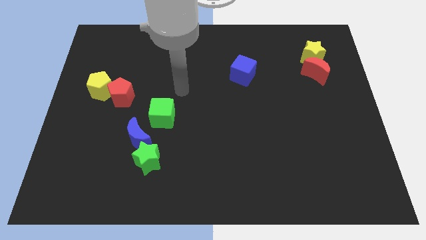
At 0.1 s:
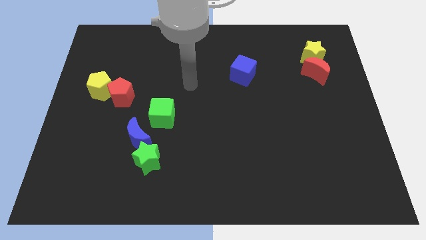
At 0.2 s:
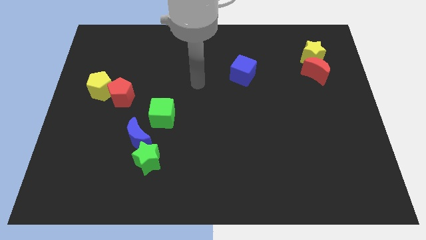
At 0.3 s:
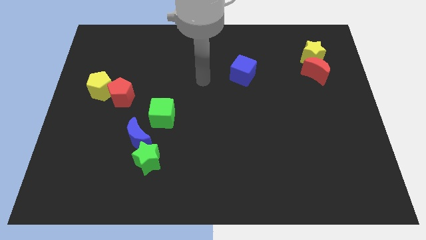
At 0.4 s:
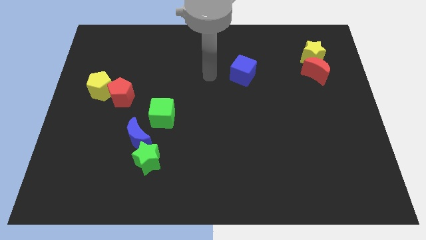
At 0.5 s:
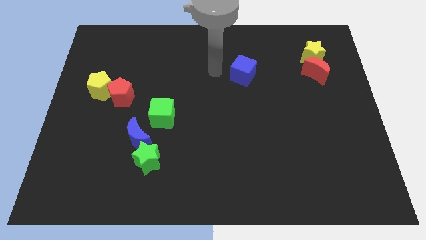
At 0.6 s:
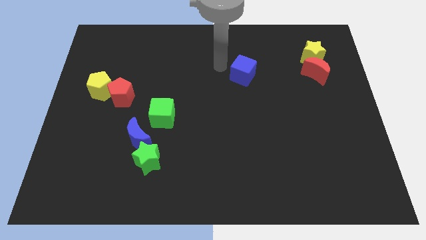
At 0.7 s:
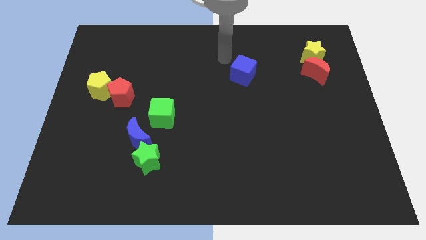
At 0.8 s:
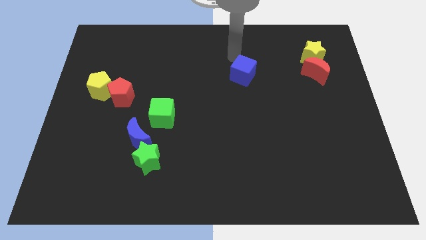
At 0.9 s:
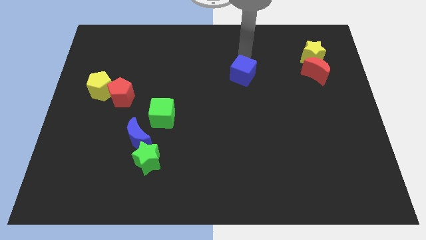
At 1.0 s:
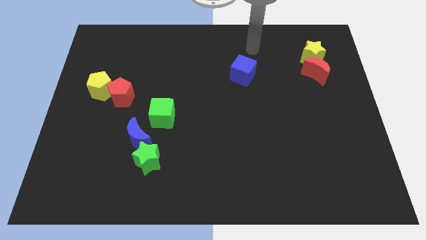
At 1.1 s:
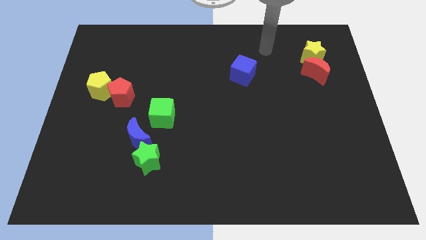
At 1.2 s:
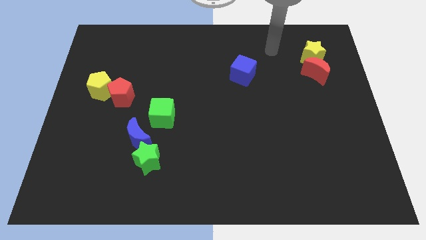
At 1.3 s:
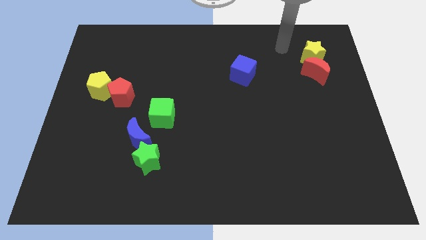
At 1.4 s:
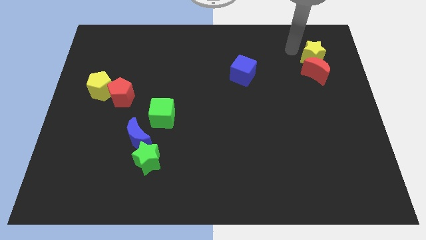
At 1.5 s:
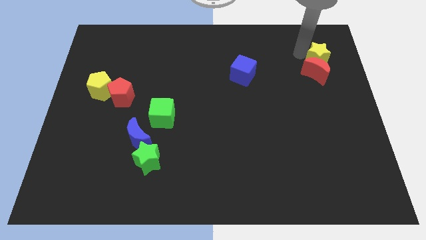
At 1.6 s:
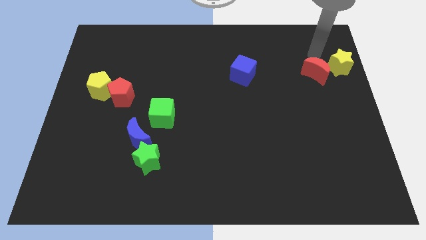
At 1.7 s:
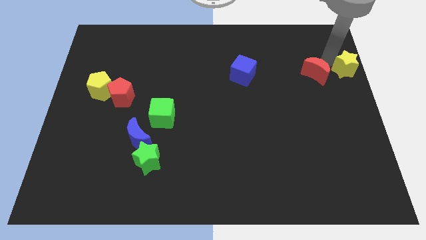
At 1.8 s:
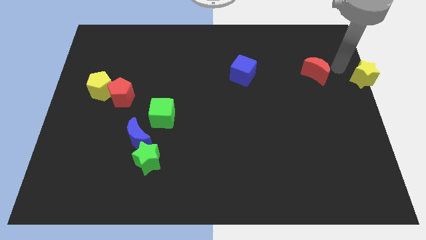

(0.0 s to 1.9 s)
separate the red moon from the yellow star

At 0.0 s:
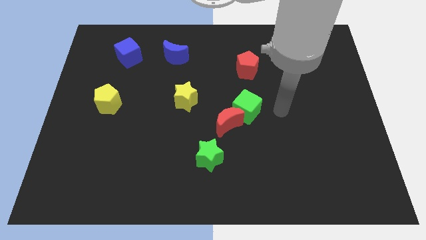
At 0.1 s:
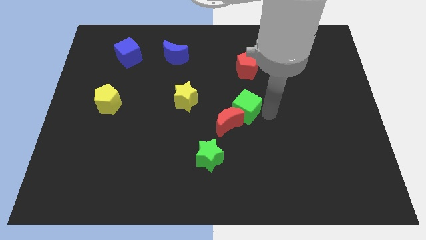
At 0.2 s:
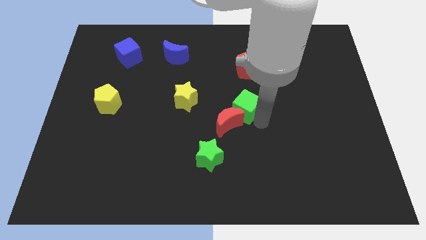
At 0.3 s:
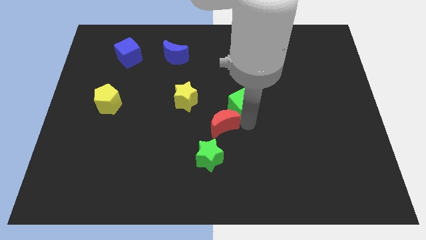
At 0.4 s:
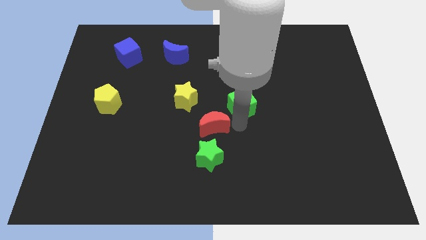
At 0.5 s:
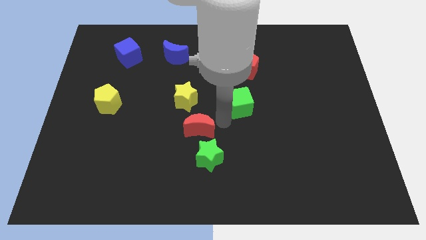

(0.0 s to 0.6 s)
move the green cube away from the red moon

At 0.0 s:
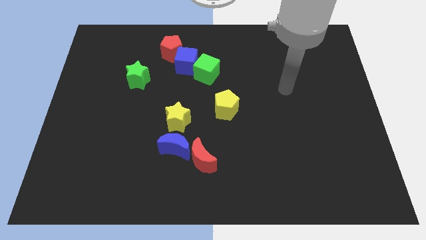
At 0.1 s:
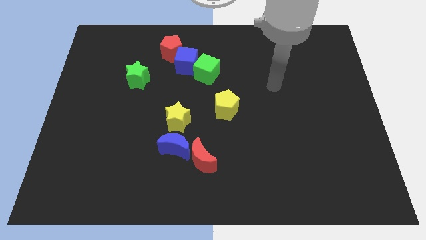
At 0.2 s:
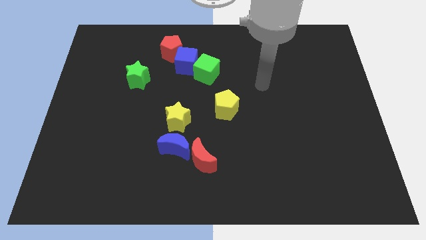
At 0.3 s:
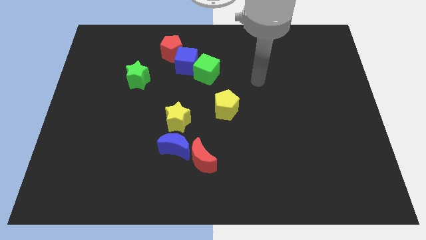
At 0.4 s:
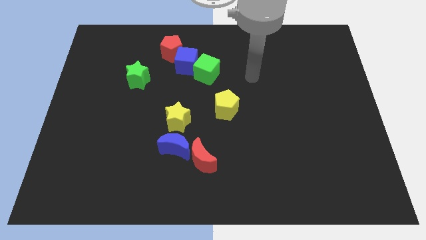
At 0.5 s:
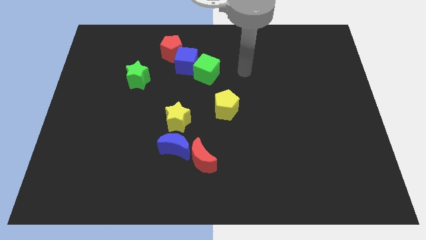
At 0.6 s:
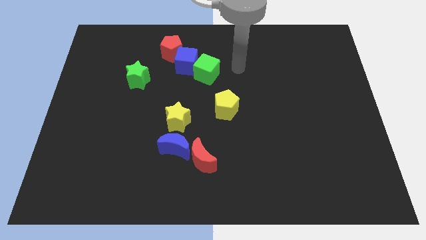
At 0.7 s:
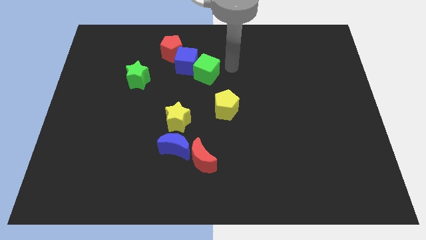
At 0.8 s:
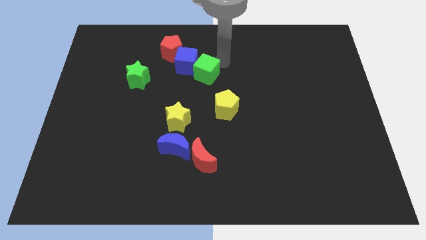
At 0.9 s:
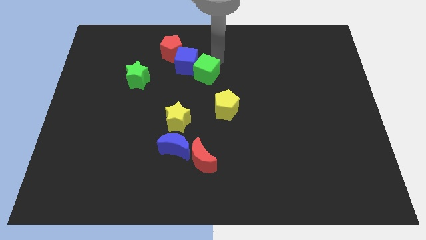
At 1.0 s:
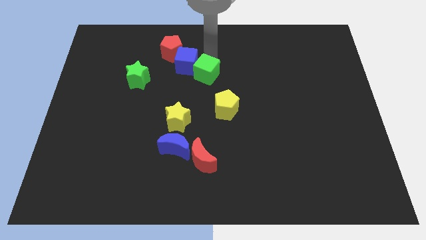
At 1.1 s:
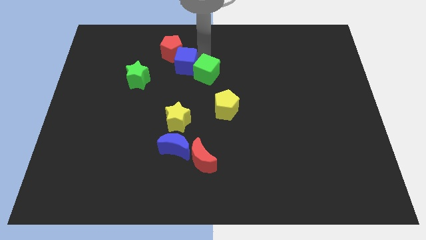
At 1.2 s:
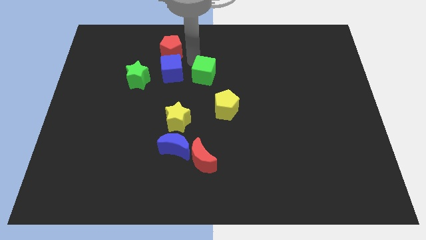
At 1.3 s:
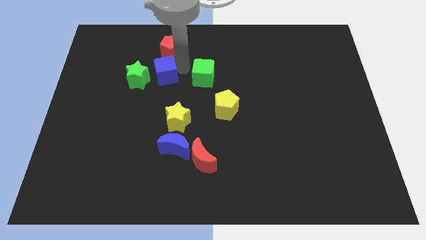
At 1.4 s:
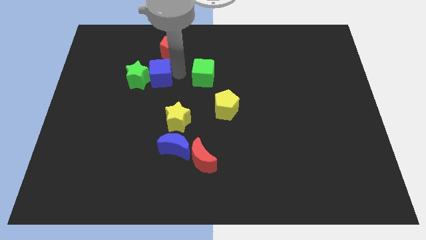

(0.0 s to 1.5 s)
move the green cube away from the blue cube

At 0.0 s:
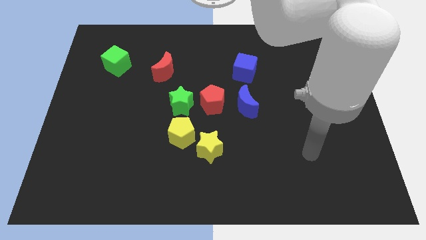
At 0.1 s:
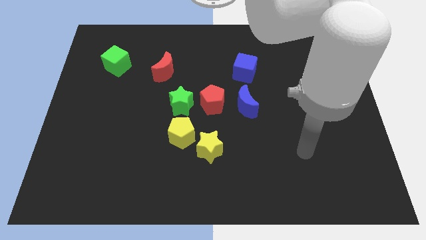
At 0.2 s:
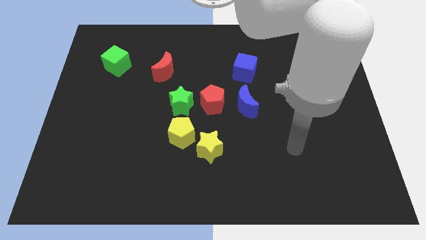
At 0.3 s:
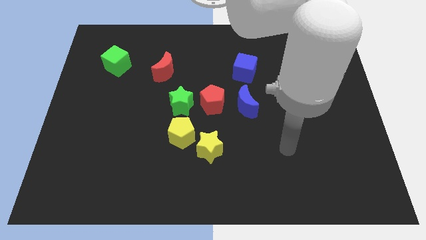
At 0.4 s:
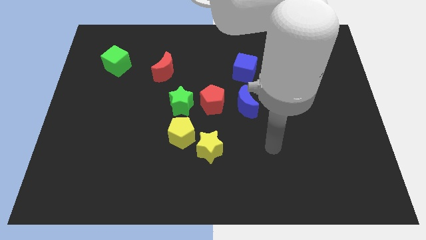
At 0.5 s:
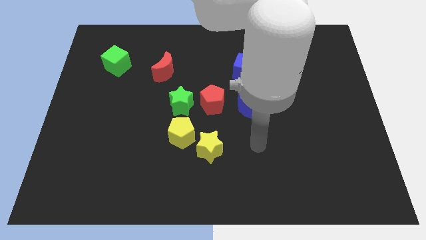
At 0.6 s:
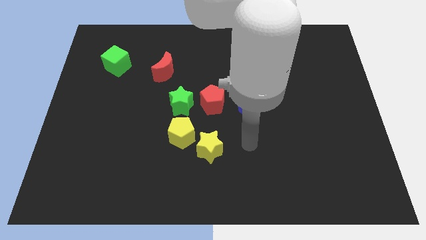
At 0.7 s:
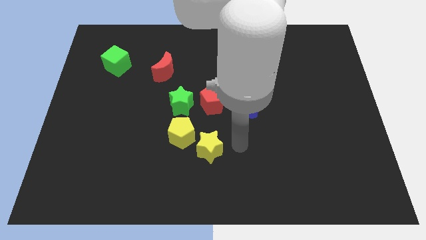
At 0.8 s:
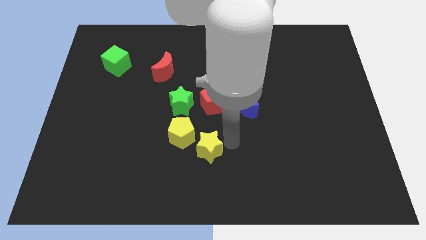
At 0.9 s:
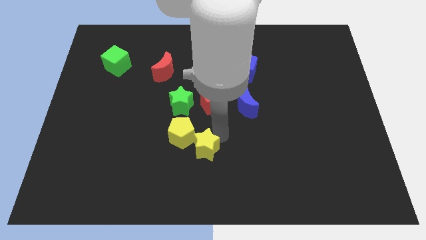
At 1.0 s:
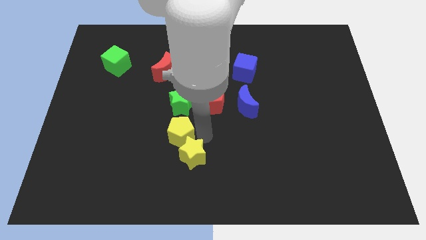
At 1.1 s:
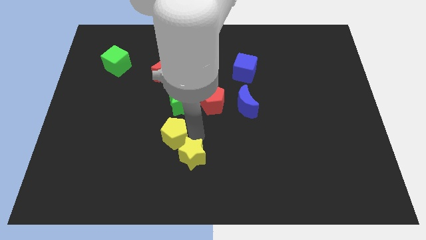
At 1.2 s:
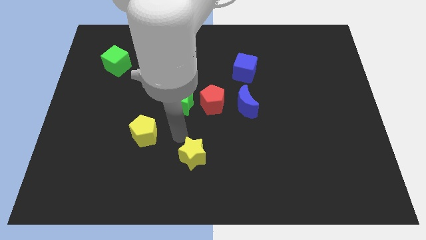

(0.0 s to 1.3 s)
move the yellow star away from the yellow pentagon

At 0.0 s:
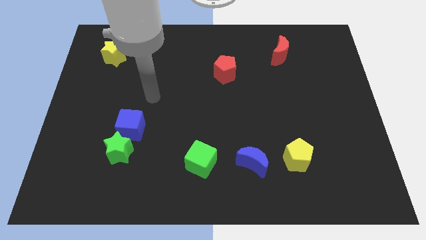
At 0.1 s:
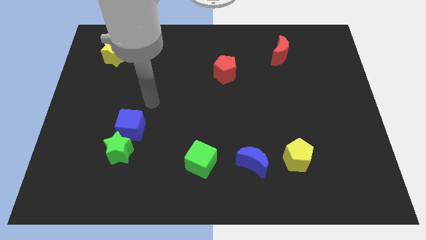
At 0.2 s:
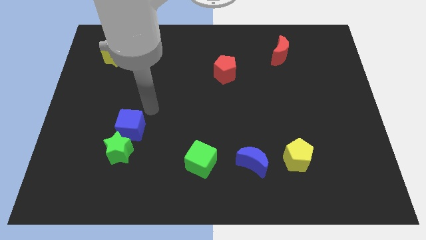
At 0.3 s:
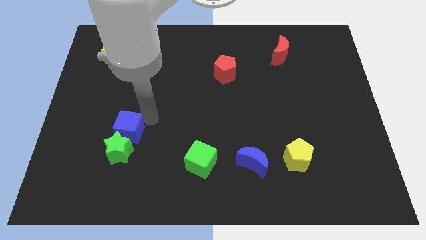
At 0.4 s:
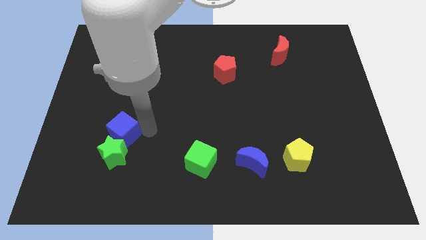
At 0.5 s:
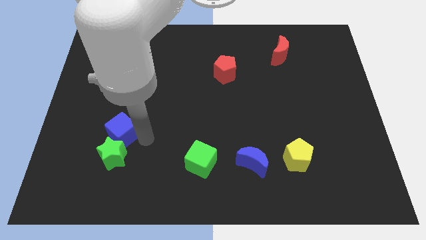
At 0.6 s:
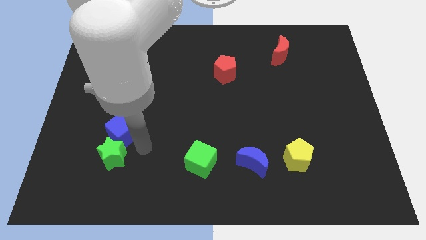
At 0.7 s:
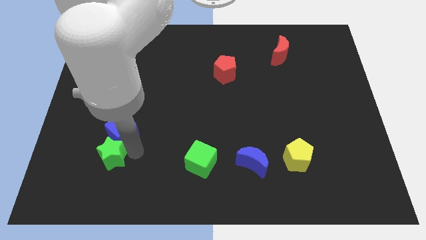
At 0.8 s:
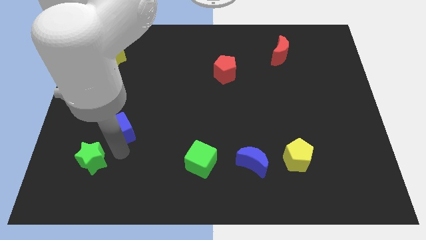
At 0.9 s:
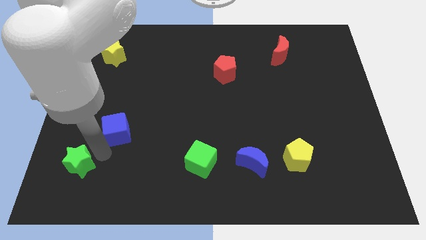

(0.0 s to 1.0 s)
pull the blue cube apart from the green star

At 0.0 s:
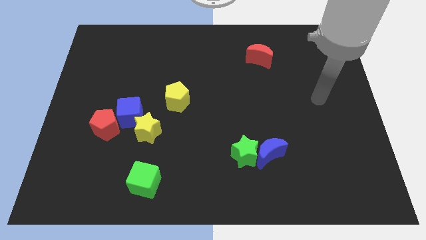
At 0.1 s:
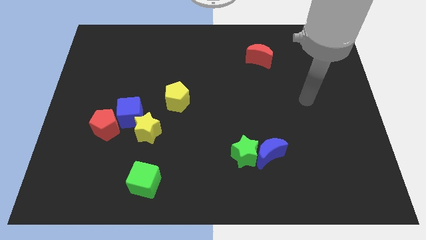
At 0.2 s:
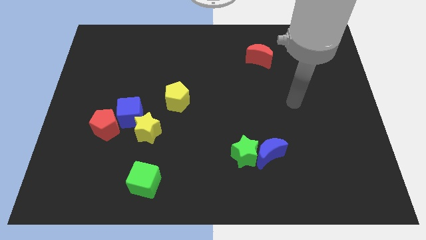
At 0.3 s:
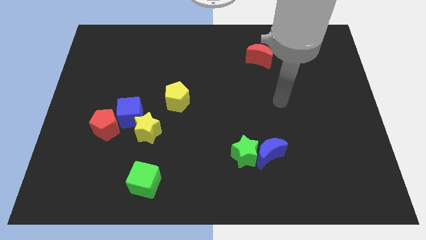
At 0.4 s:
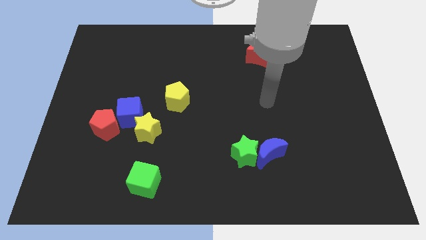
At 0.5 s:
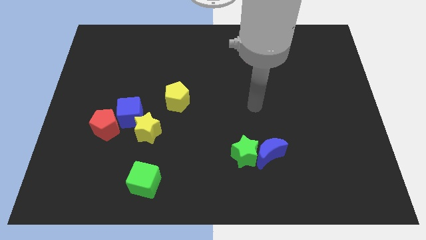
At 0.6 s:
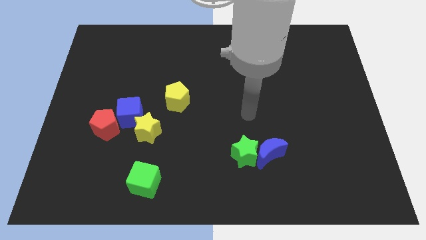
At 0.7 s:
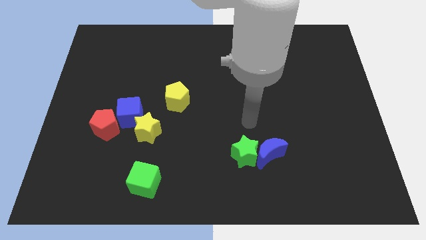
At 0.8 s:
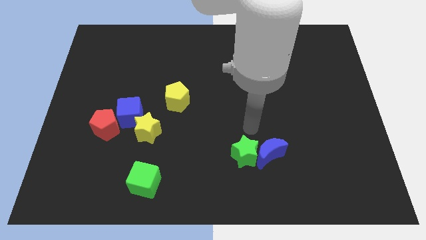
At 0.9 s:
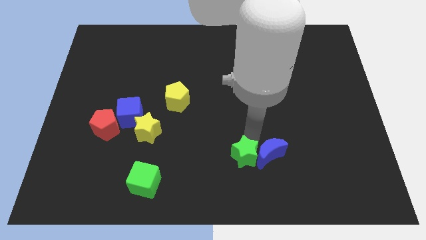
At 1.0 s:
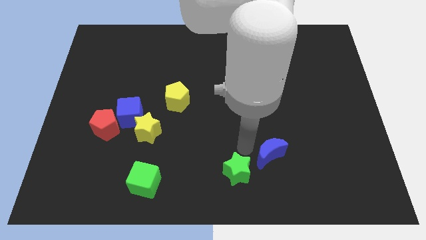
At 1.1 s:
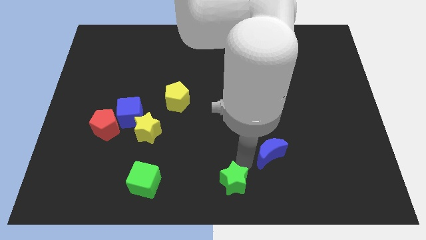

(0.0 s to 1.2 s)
pull the blue moon apart from the green star

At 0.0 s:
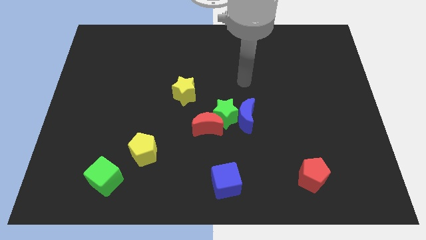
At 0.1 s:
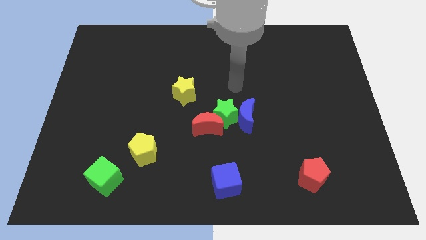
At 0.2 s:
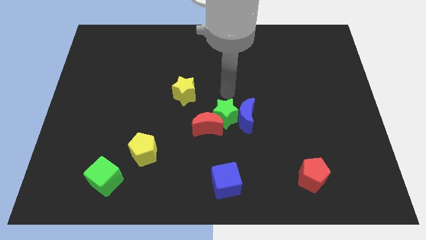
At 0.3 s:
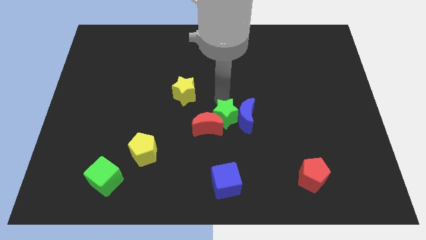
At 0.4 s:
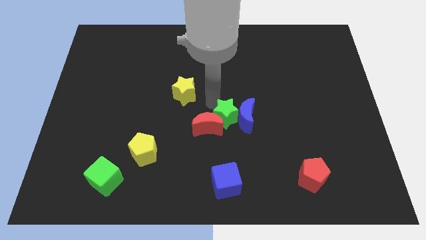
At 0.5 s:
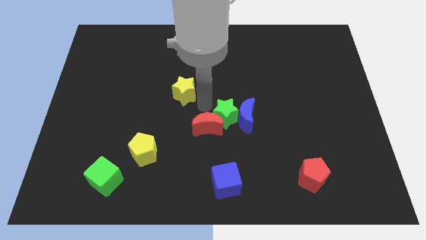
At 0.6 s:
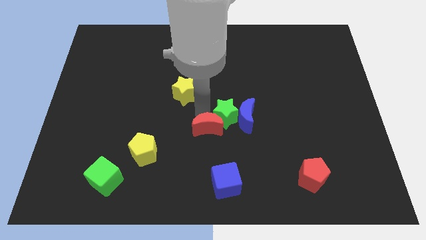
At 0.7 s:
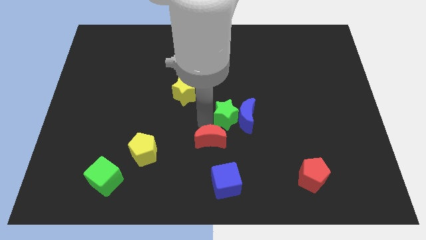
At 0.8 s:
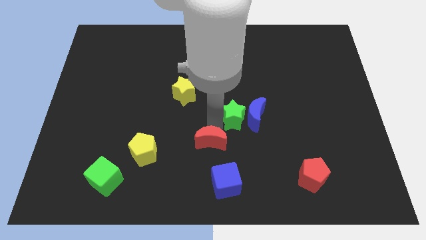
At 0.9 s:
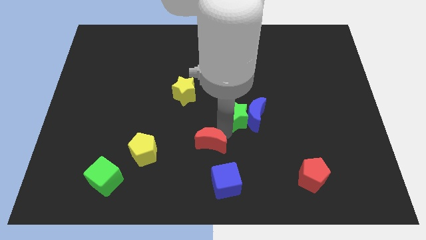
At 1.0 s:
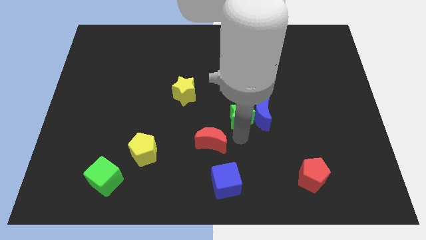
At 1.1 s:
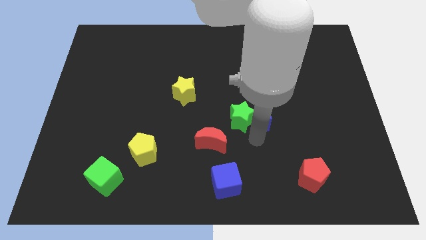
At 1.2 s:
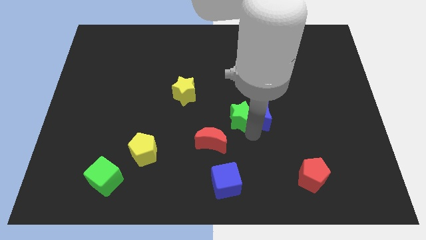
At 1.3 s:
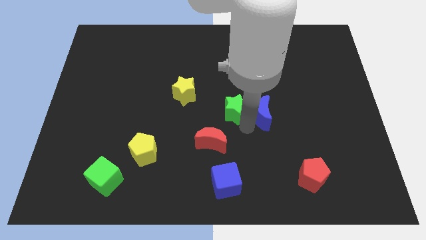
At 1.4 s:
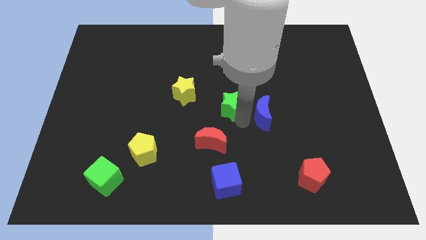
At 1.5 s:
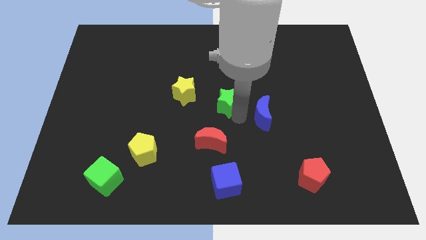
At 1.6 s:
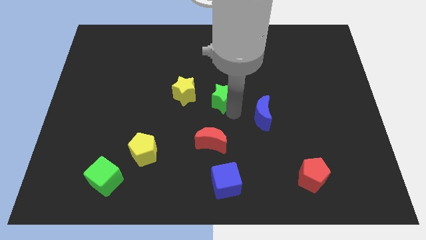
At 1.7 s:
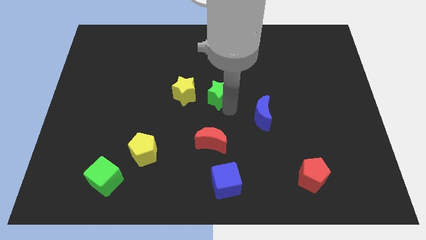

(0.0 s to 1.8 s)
move the green star away from the blue moon and red moon

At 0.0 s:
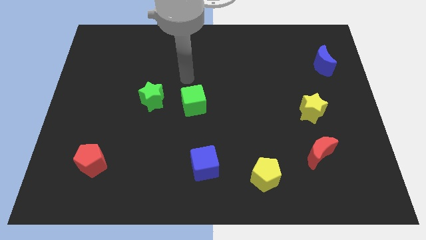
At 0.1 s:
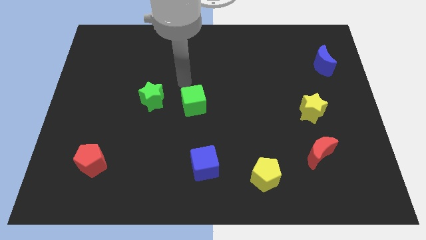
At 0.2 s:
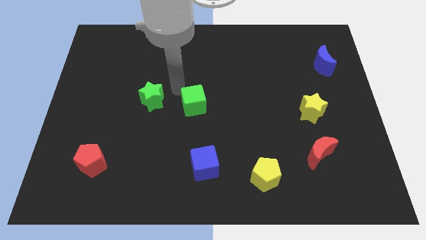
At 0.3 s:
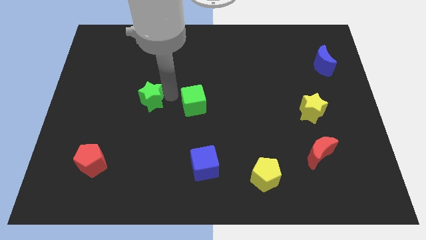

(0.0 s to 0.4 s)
pull the green cube apart from the green star
